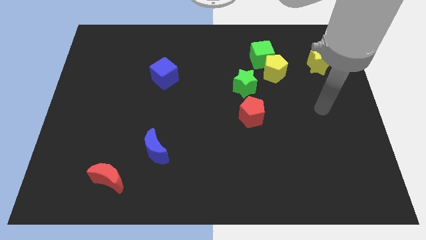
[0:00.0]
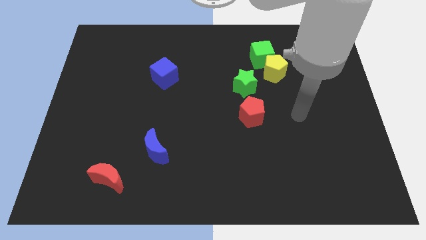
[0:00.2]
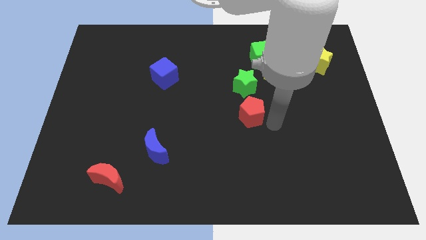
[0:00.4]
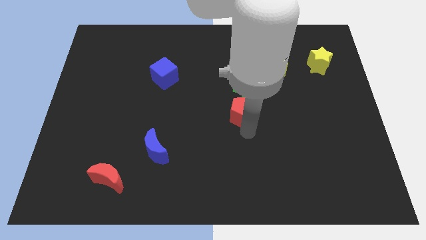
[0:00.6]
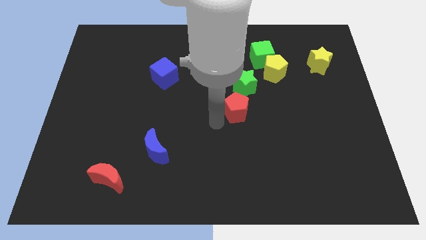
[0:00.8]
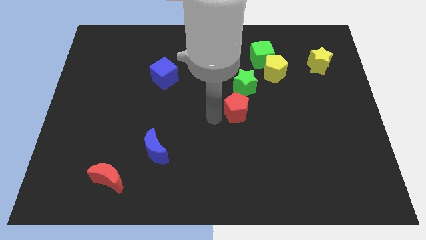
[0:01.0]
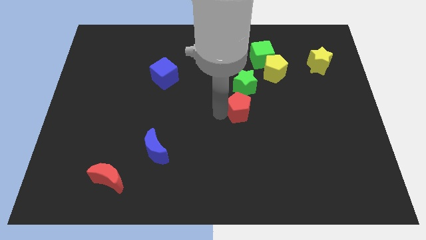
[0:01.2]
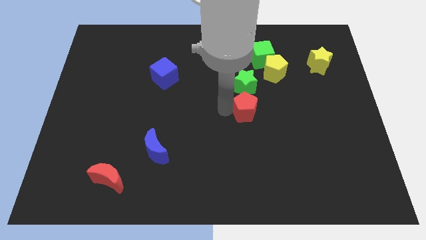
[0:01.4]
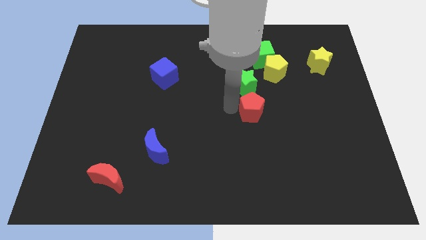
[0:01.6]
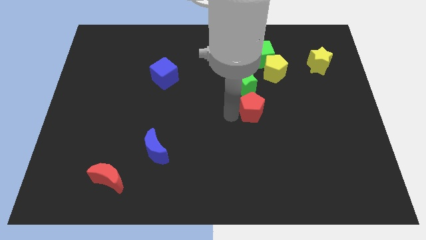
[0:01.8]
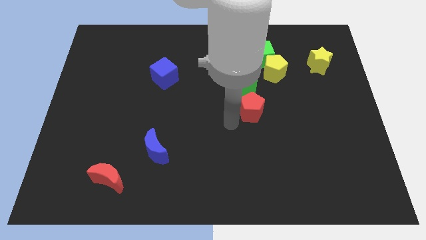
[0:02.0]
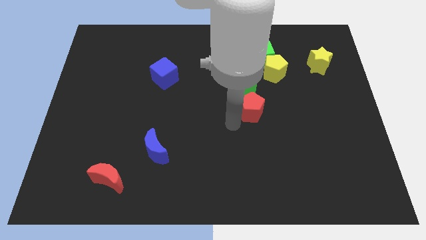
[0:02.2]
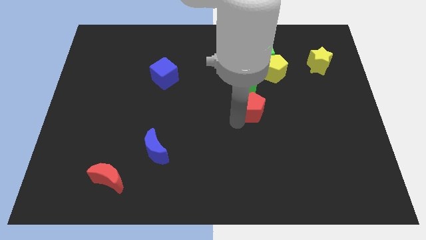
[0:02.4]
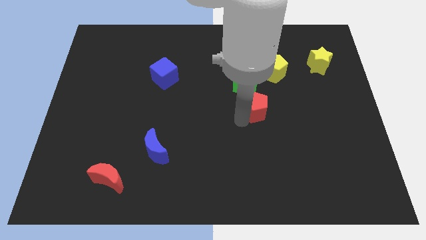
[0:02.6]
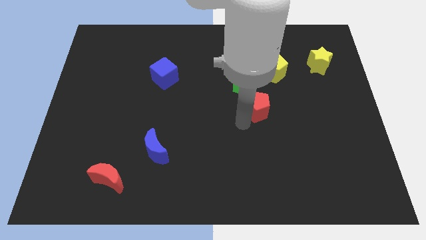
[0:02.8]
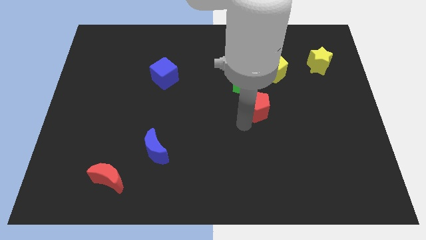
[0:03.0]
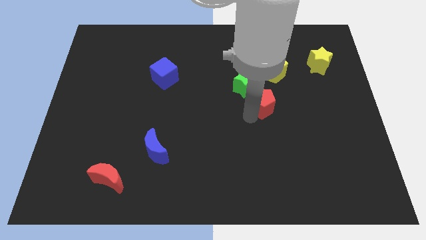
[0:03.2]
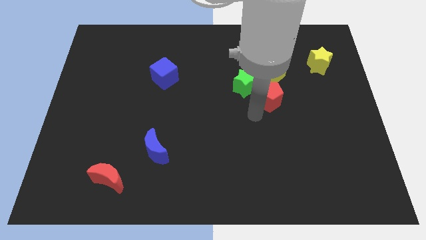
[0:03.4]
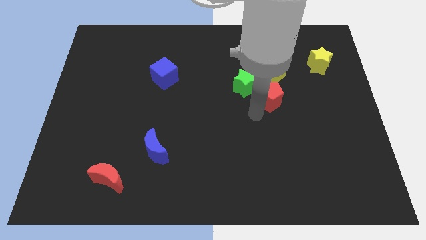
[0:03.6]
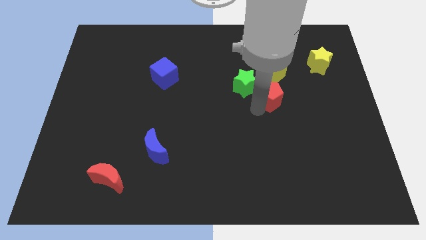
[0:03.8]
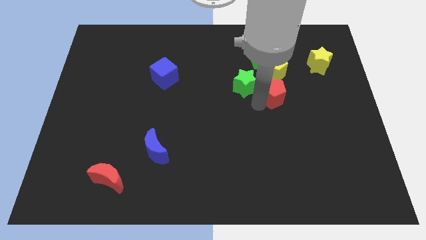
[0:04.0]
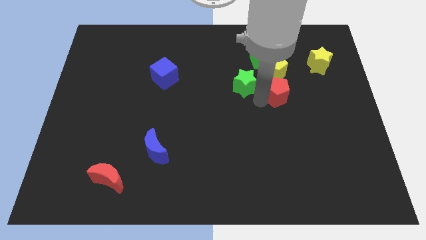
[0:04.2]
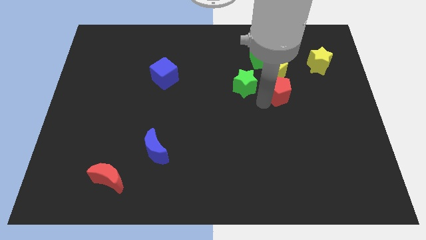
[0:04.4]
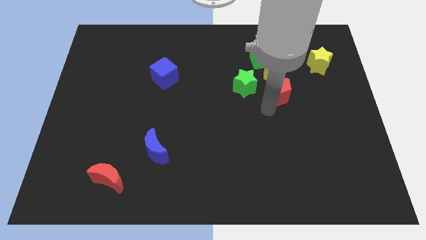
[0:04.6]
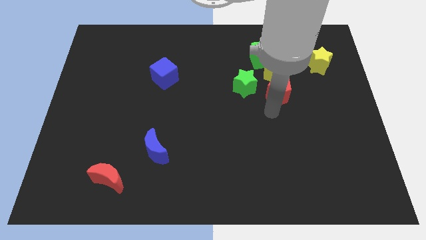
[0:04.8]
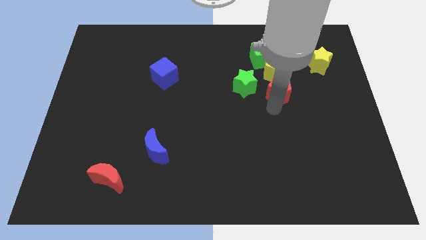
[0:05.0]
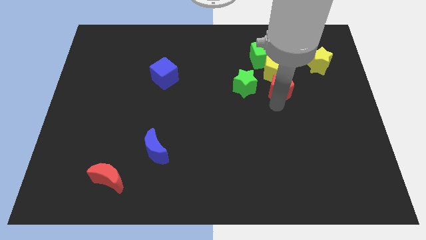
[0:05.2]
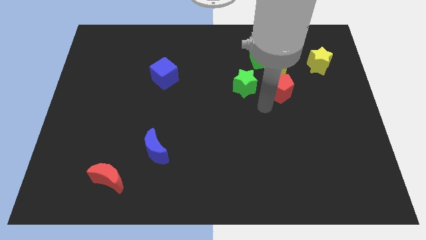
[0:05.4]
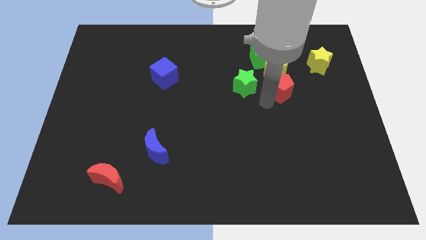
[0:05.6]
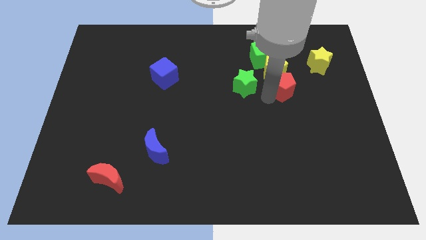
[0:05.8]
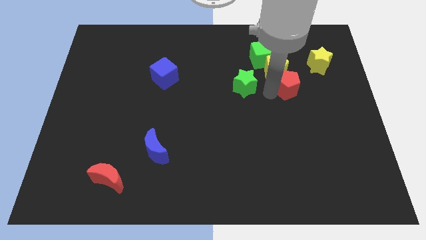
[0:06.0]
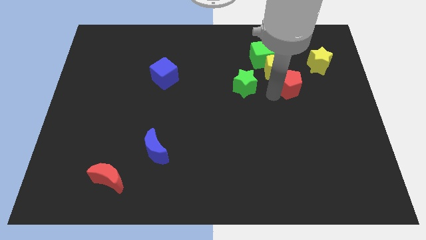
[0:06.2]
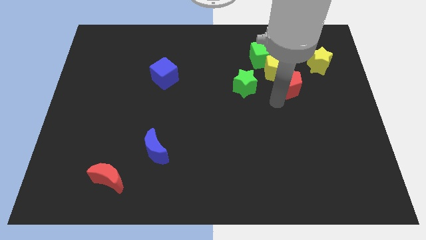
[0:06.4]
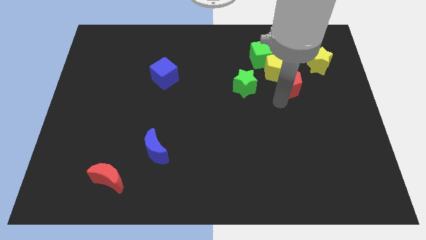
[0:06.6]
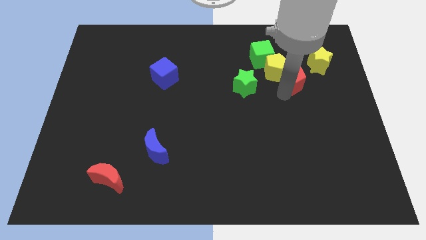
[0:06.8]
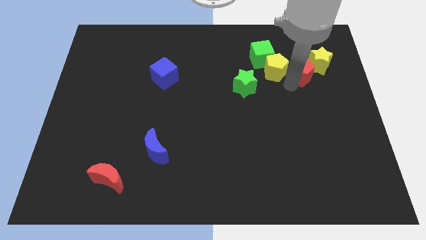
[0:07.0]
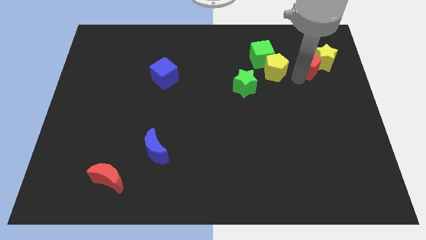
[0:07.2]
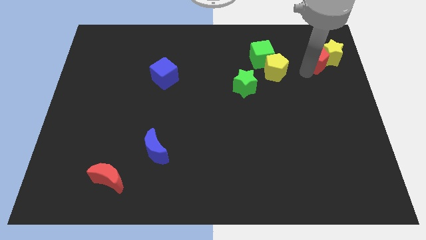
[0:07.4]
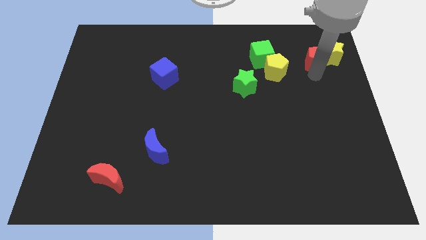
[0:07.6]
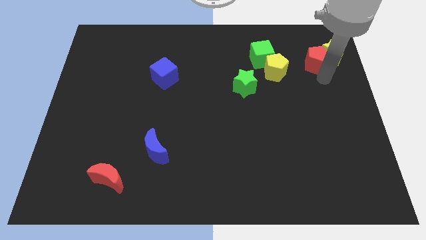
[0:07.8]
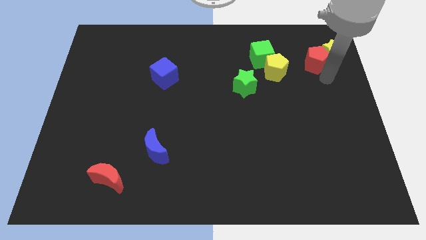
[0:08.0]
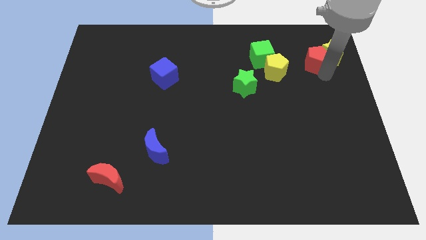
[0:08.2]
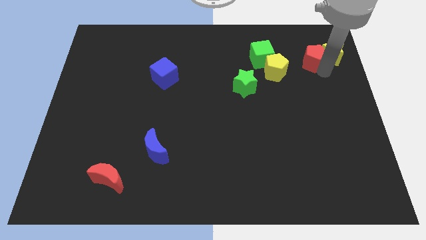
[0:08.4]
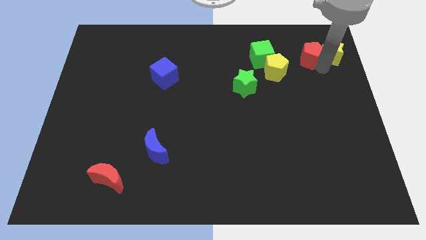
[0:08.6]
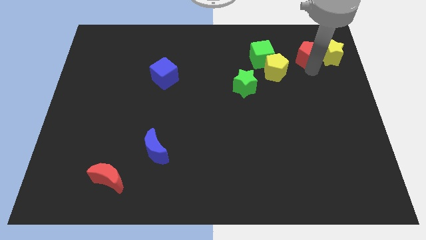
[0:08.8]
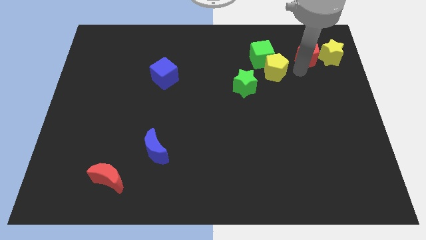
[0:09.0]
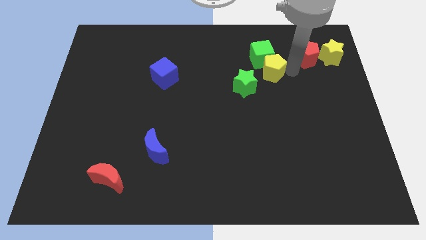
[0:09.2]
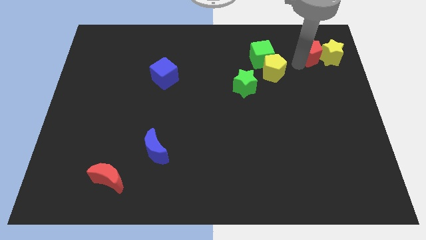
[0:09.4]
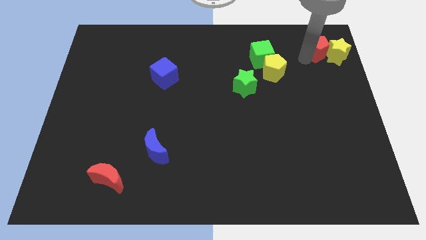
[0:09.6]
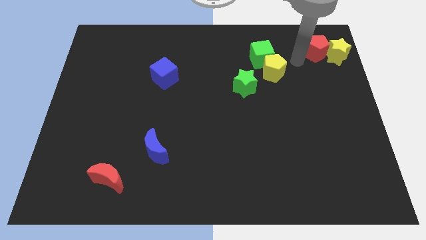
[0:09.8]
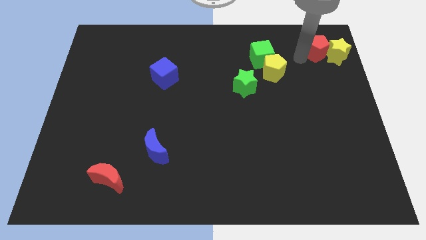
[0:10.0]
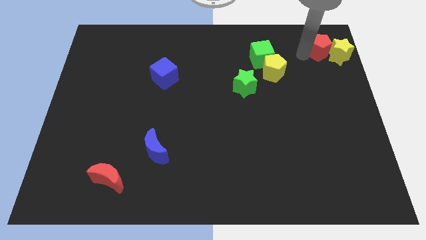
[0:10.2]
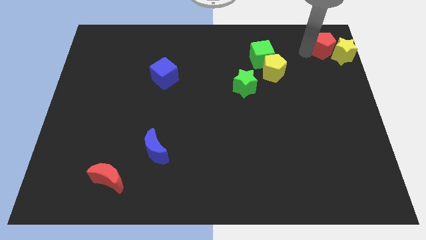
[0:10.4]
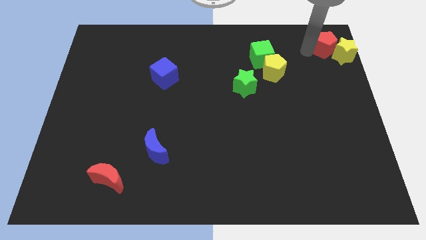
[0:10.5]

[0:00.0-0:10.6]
push the red pentagon to the top right

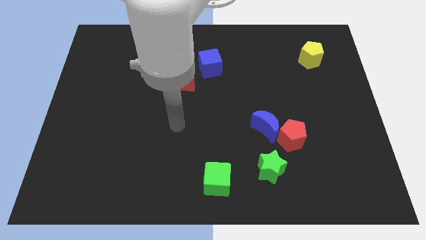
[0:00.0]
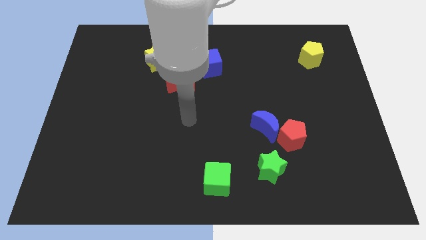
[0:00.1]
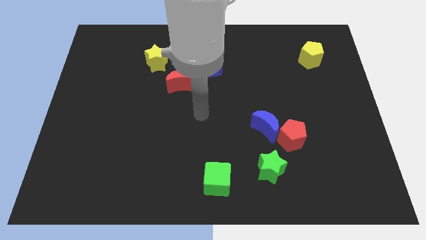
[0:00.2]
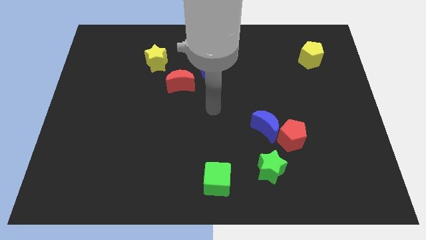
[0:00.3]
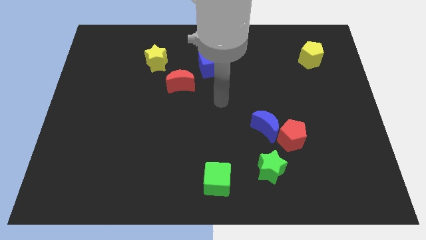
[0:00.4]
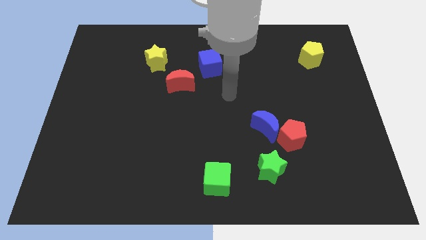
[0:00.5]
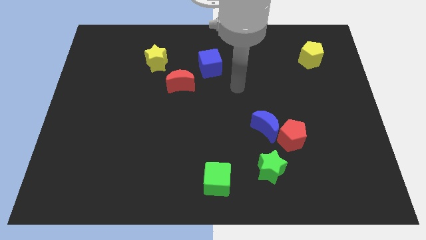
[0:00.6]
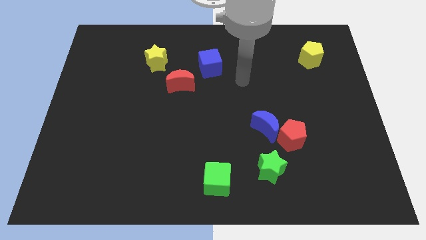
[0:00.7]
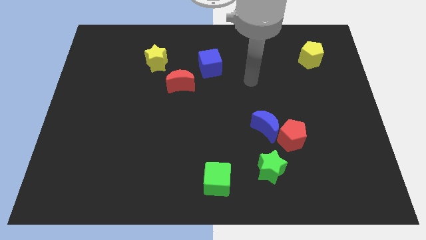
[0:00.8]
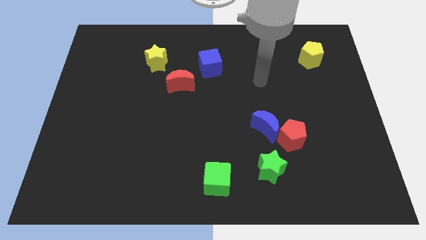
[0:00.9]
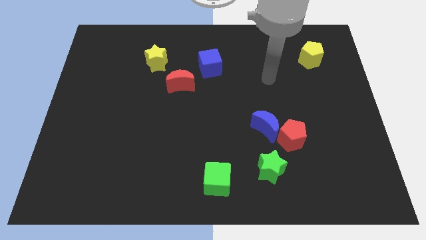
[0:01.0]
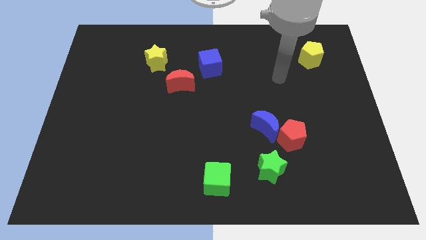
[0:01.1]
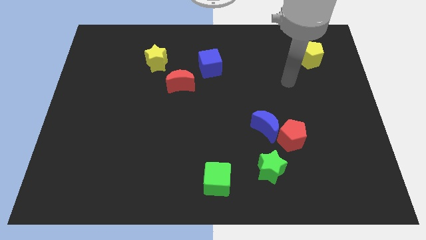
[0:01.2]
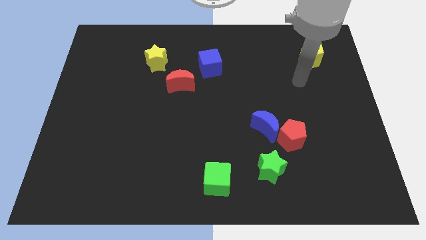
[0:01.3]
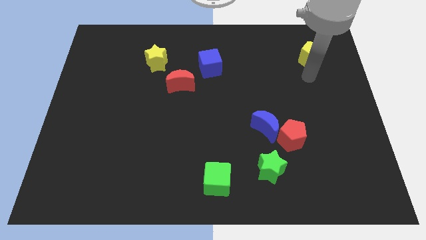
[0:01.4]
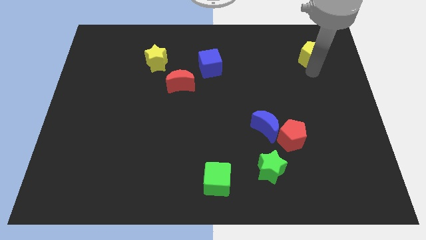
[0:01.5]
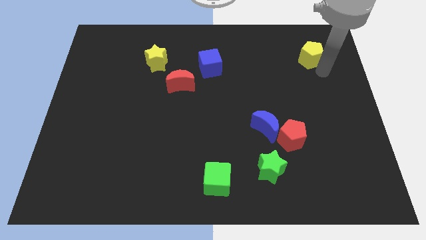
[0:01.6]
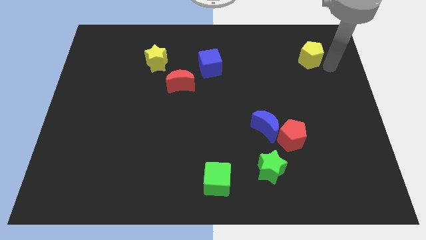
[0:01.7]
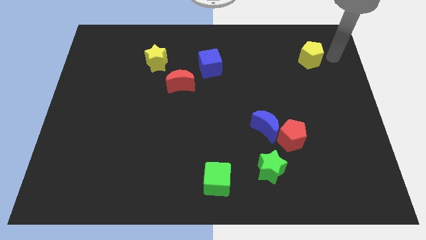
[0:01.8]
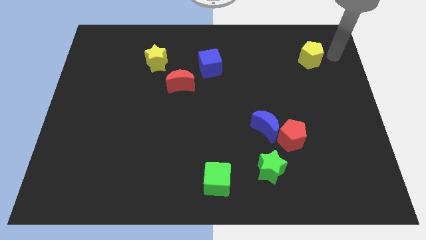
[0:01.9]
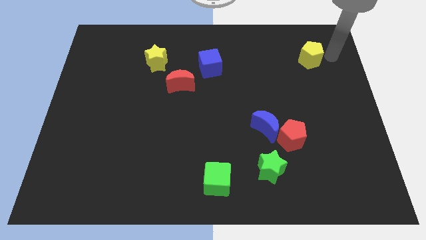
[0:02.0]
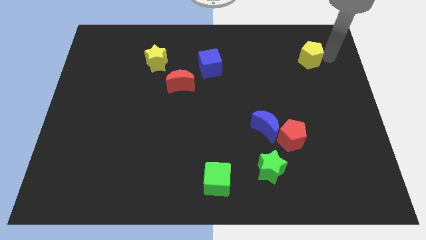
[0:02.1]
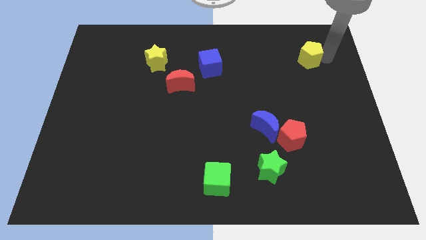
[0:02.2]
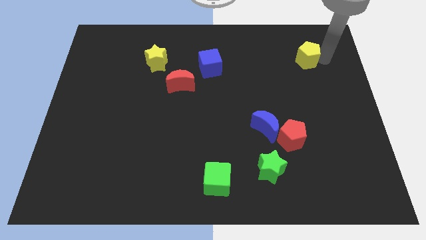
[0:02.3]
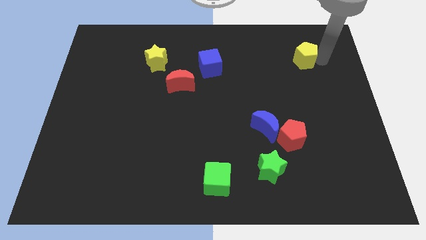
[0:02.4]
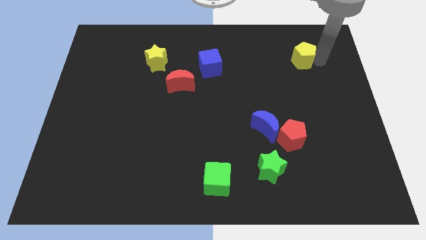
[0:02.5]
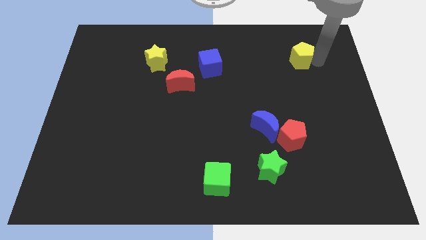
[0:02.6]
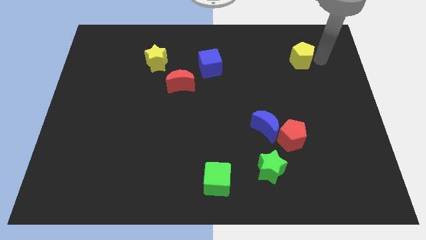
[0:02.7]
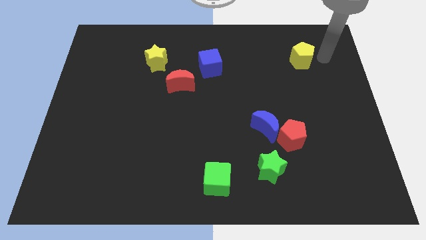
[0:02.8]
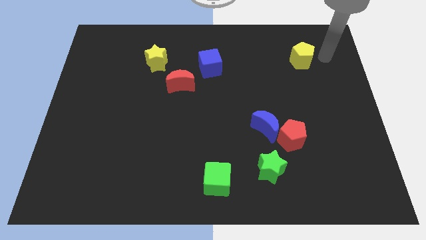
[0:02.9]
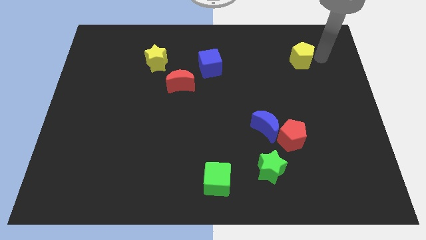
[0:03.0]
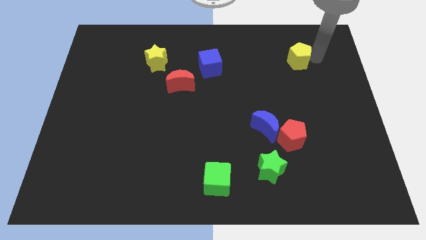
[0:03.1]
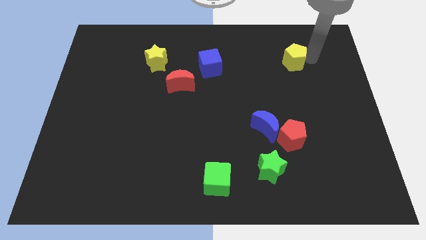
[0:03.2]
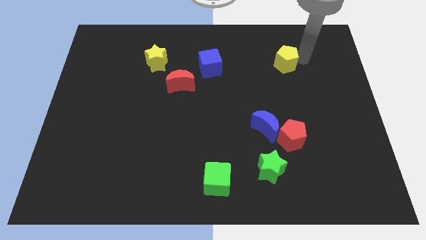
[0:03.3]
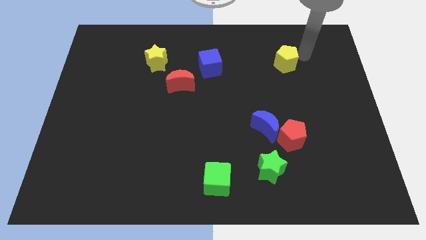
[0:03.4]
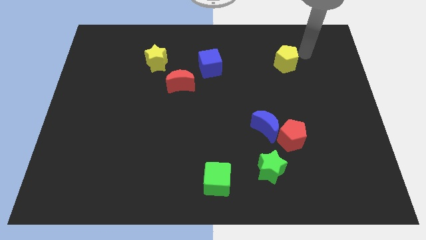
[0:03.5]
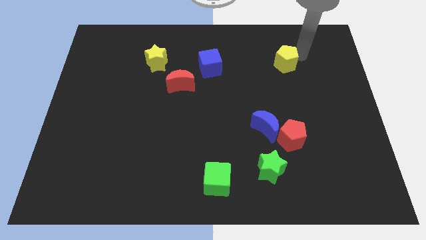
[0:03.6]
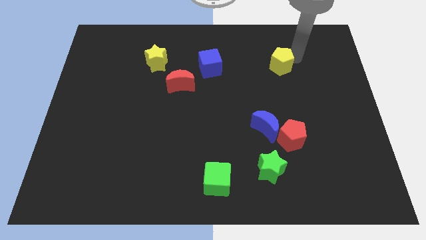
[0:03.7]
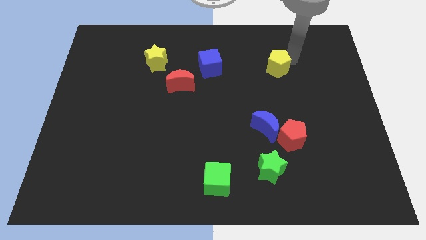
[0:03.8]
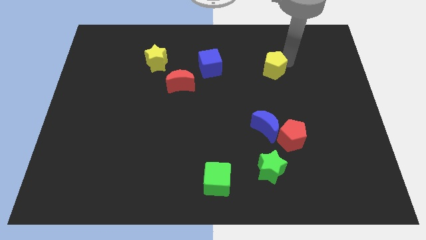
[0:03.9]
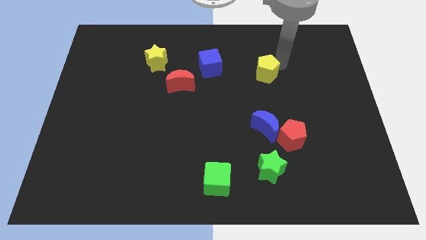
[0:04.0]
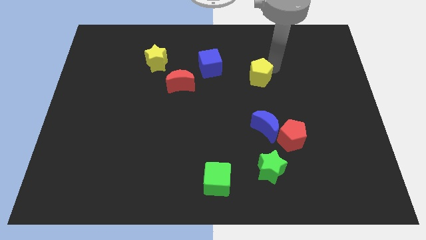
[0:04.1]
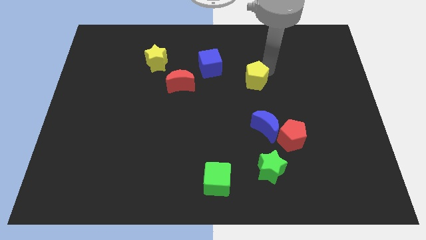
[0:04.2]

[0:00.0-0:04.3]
push the yellow pentagon to the middle
